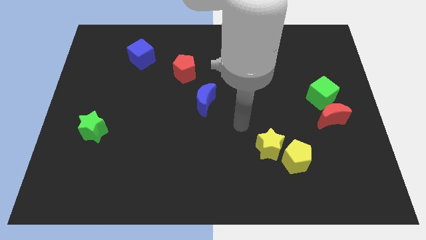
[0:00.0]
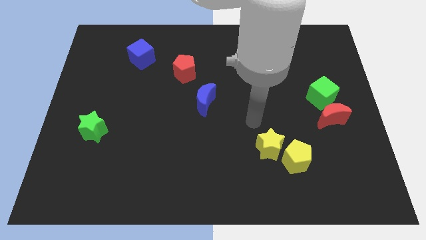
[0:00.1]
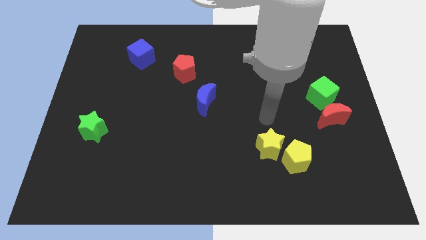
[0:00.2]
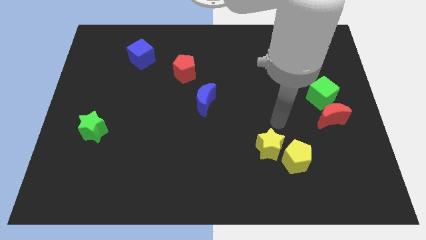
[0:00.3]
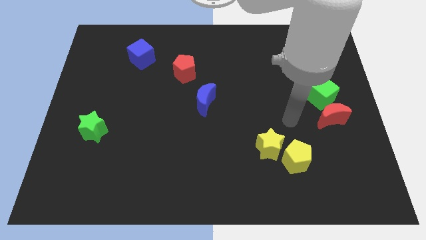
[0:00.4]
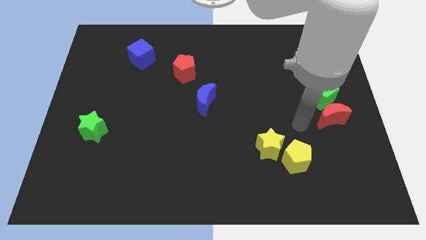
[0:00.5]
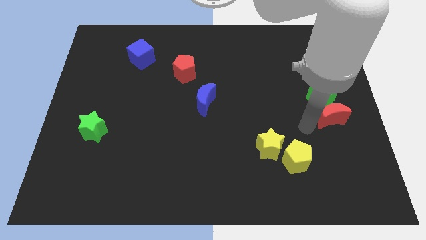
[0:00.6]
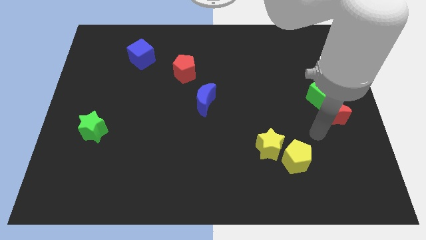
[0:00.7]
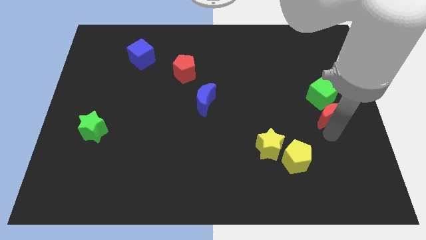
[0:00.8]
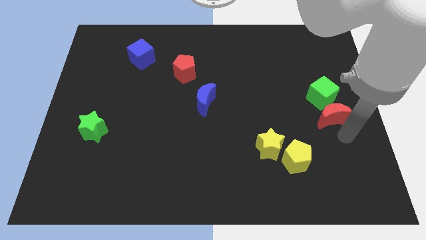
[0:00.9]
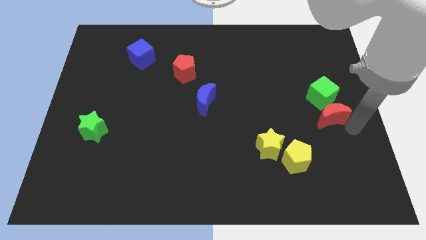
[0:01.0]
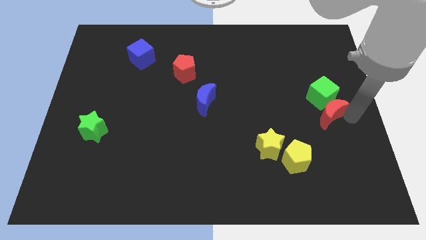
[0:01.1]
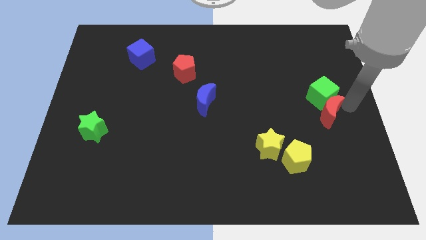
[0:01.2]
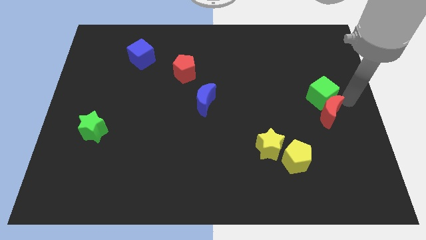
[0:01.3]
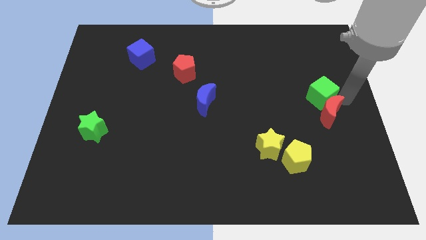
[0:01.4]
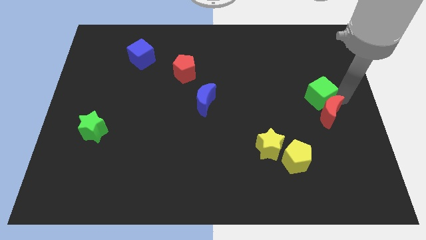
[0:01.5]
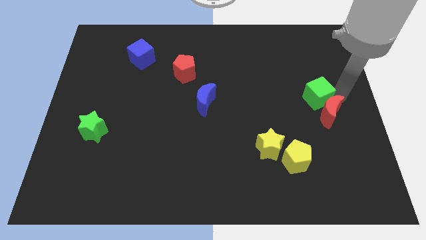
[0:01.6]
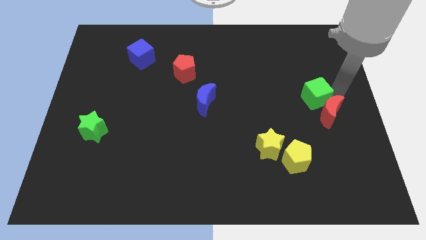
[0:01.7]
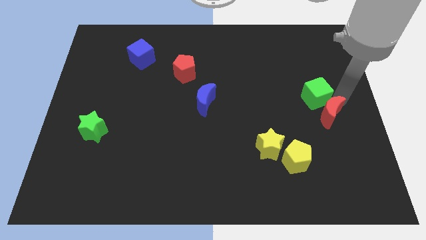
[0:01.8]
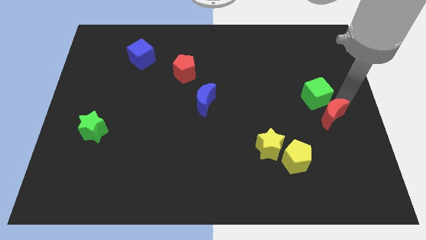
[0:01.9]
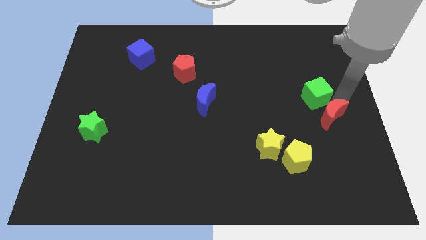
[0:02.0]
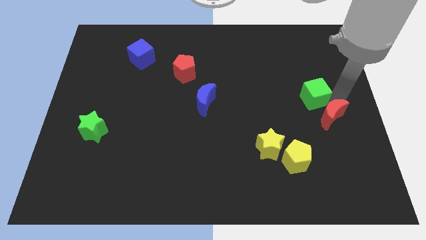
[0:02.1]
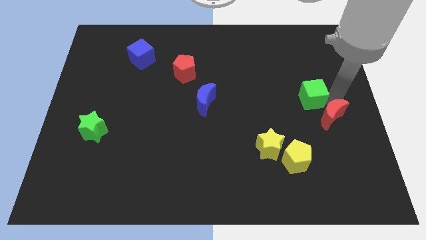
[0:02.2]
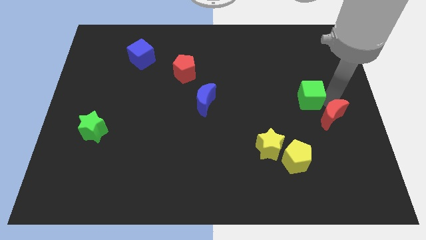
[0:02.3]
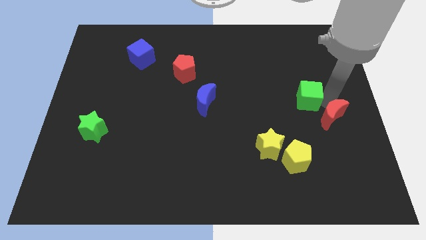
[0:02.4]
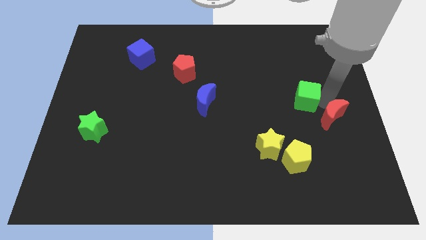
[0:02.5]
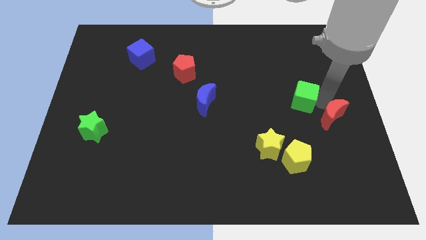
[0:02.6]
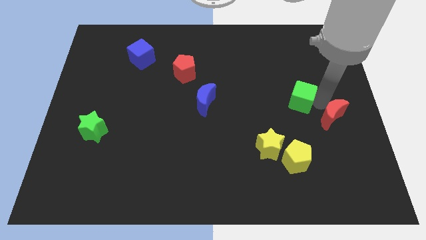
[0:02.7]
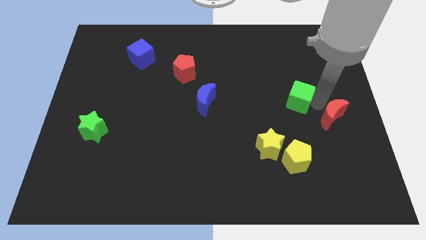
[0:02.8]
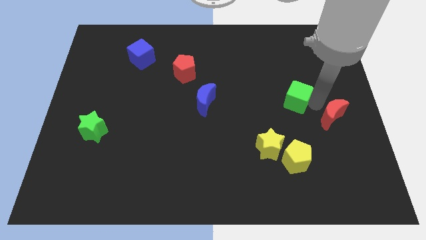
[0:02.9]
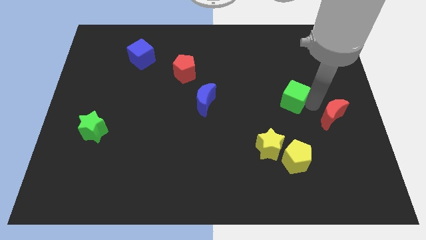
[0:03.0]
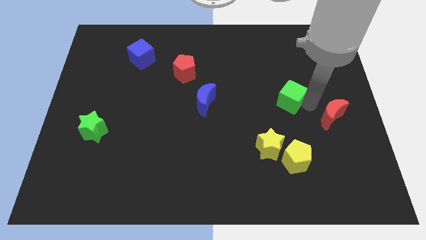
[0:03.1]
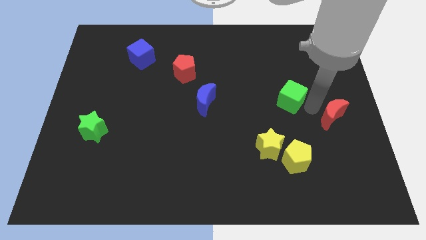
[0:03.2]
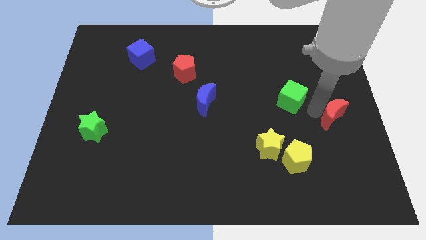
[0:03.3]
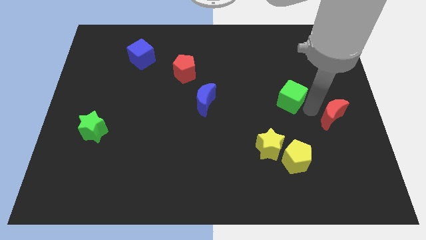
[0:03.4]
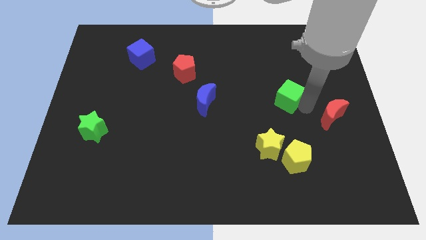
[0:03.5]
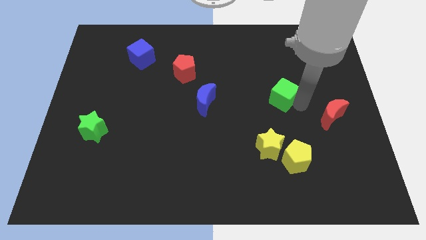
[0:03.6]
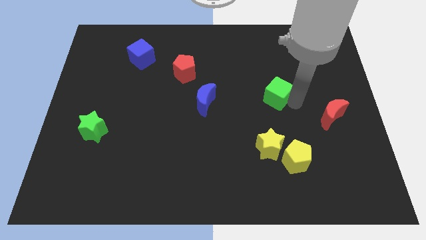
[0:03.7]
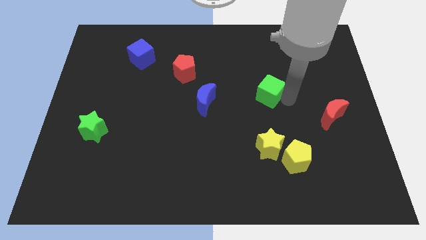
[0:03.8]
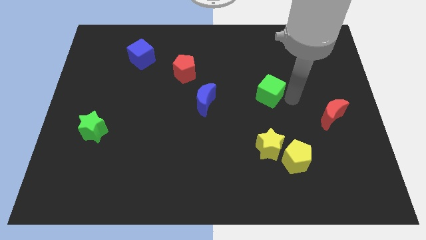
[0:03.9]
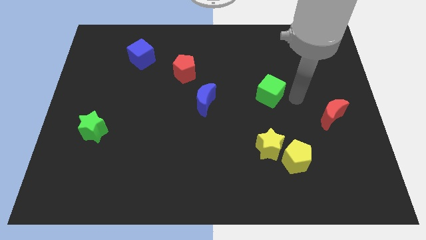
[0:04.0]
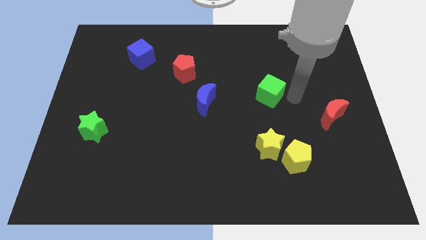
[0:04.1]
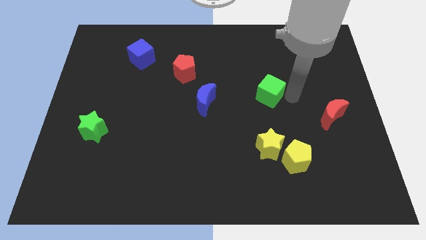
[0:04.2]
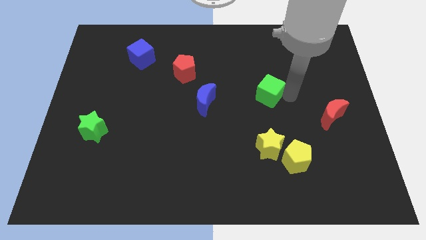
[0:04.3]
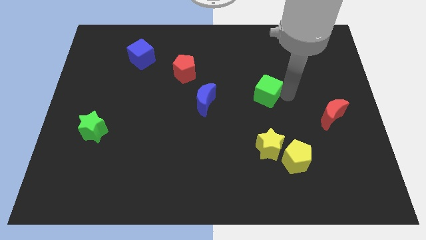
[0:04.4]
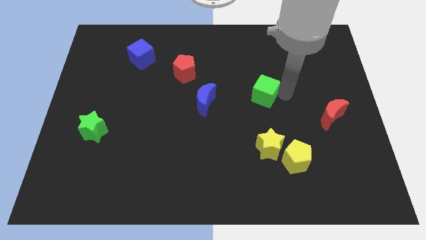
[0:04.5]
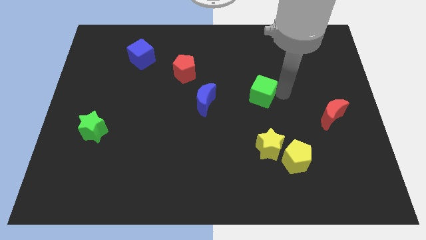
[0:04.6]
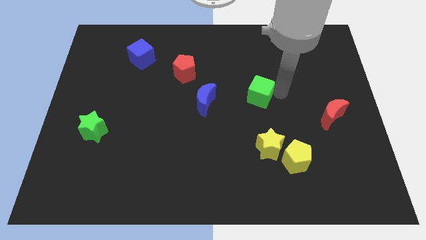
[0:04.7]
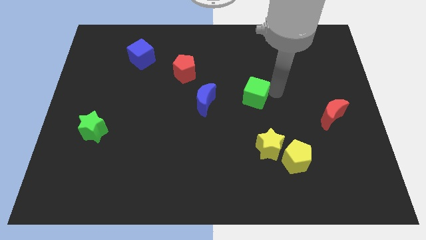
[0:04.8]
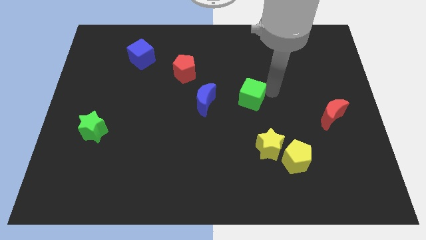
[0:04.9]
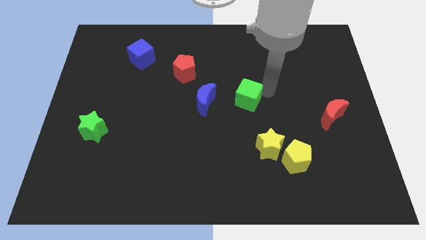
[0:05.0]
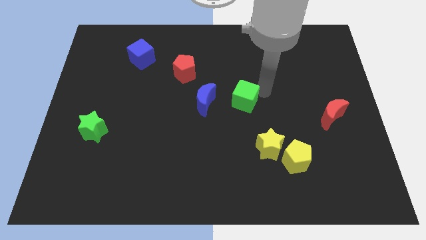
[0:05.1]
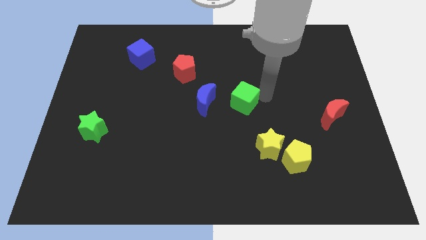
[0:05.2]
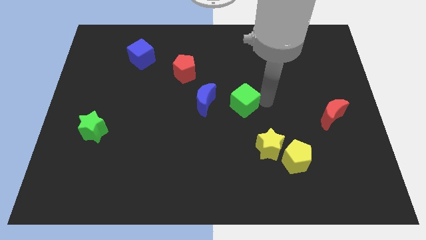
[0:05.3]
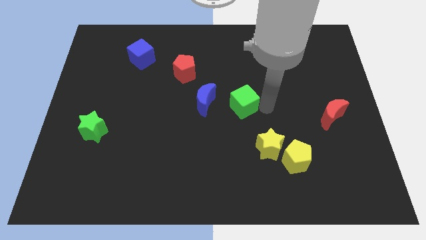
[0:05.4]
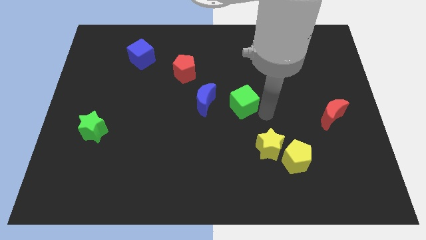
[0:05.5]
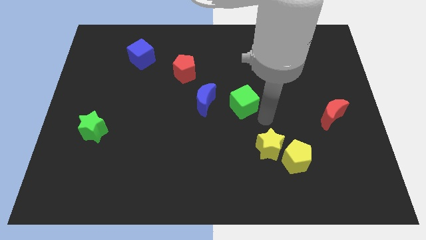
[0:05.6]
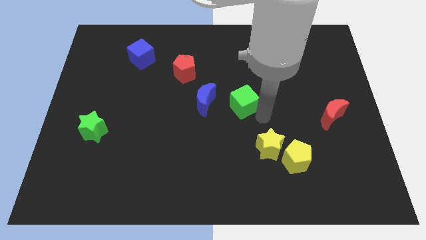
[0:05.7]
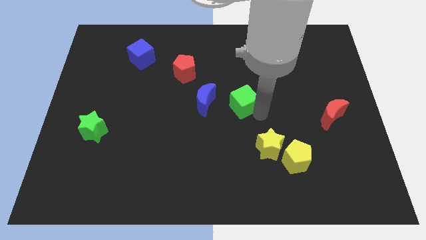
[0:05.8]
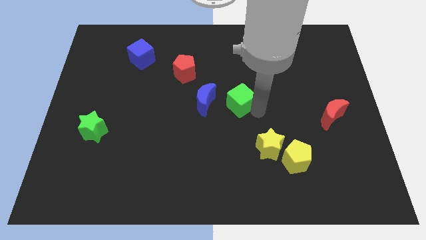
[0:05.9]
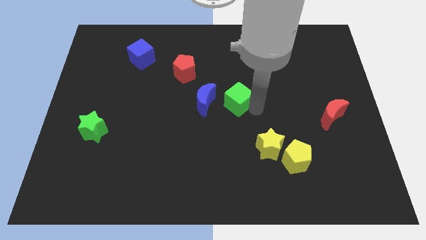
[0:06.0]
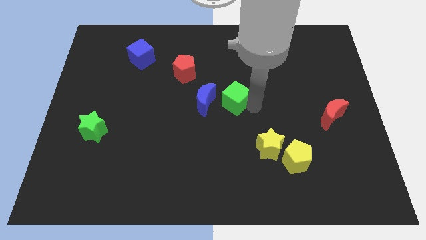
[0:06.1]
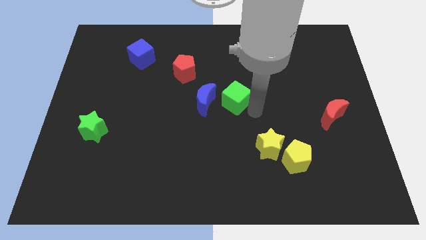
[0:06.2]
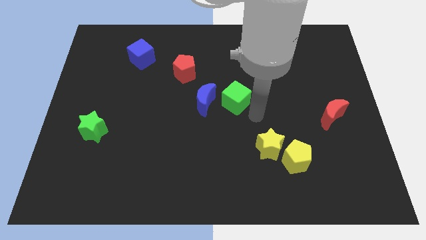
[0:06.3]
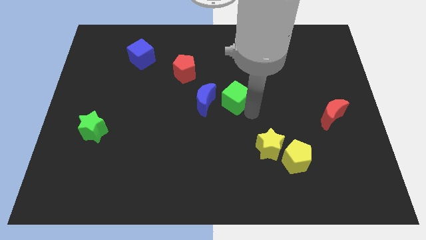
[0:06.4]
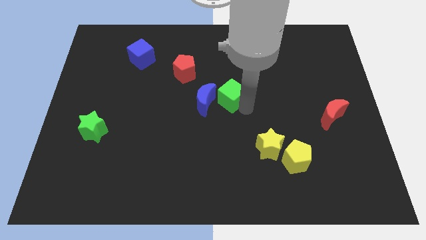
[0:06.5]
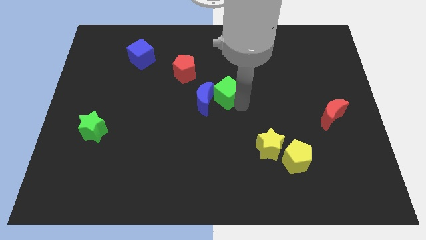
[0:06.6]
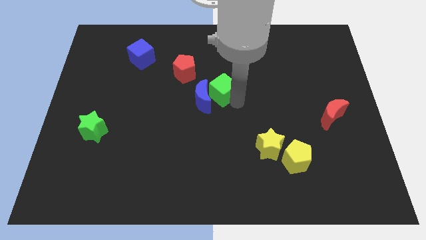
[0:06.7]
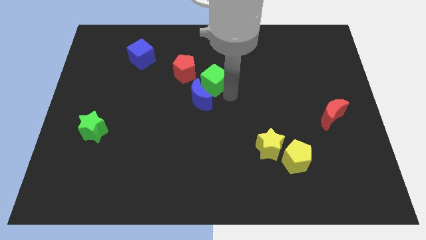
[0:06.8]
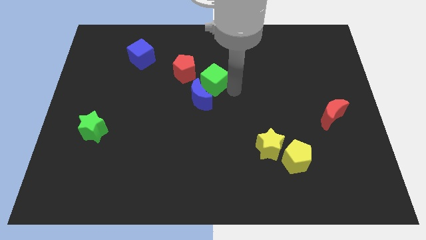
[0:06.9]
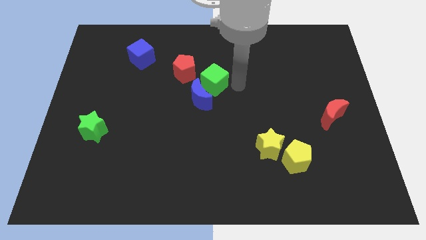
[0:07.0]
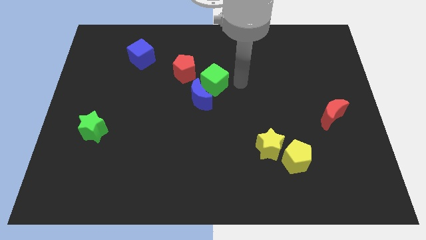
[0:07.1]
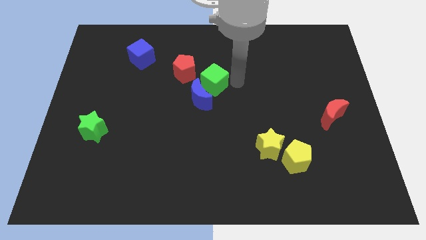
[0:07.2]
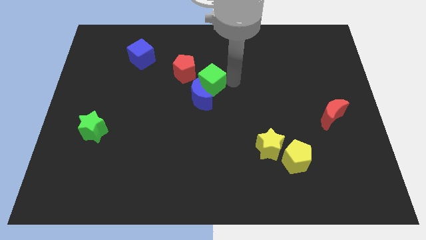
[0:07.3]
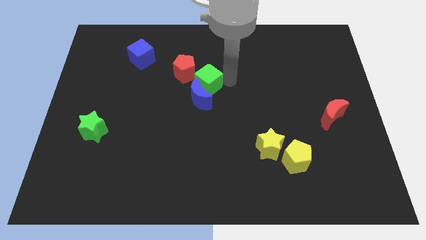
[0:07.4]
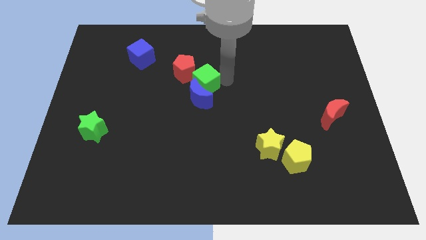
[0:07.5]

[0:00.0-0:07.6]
move the green cube diagonally up and to the left of the blue moon

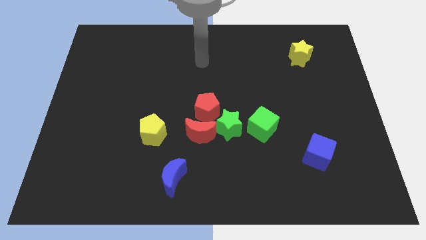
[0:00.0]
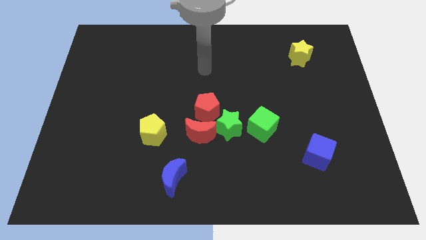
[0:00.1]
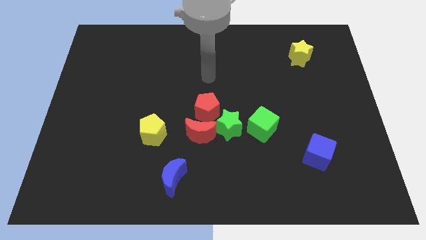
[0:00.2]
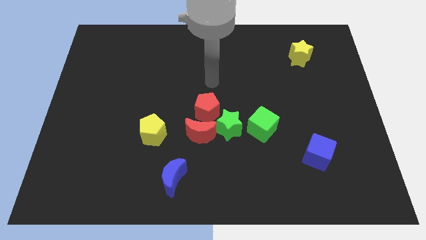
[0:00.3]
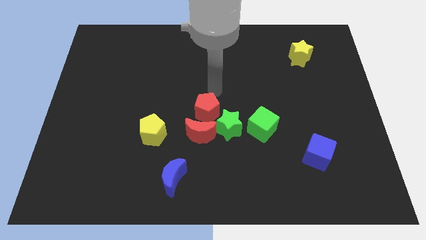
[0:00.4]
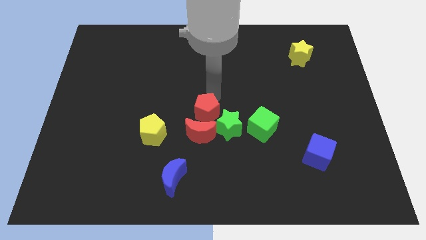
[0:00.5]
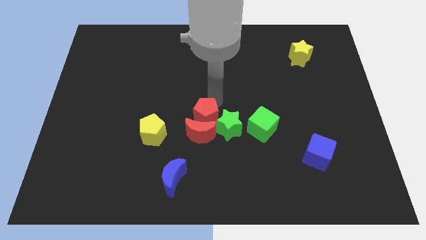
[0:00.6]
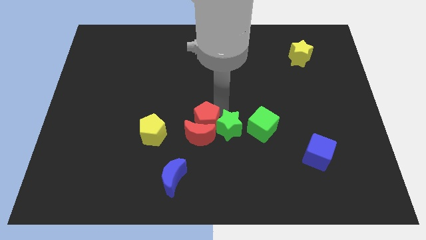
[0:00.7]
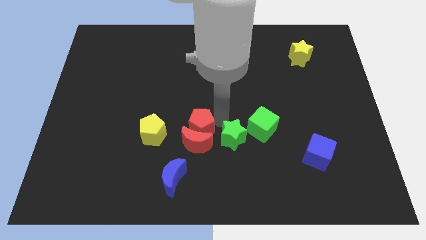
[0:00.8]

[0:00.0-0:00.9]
push the red moon diagonally down and to the right of the yellow pentagon
